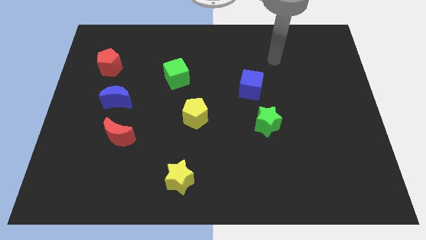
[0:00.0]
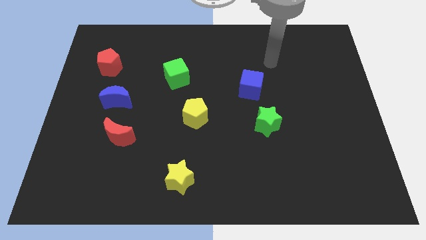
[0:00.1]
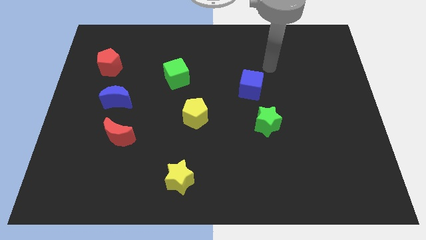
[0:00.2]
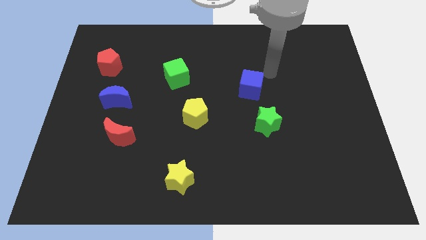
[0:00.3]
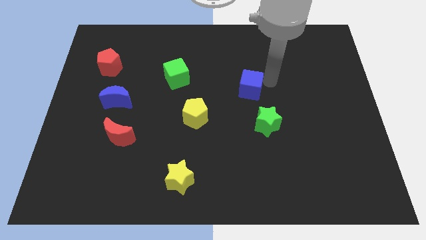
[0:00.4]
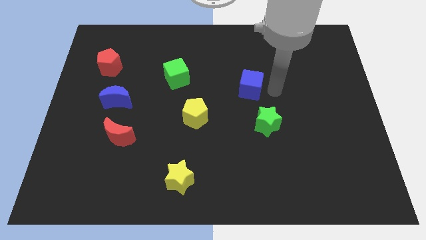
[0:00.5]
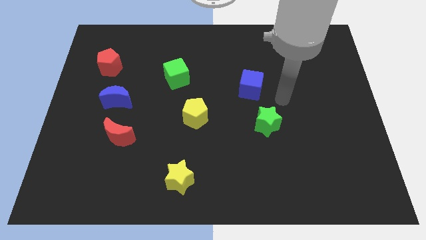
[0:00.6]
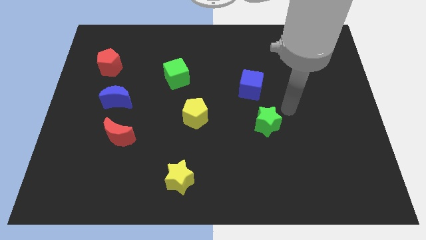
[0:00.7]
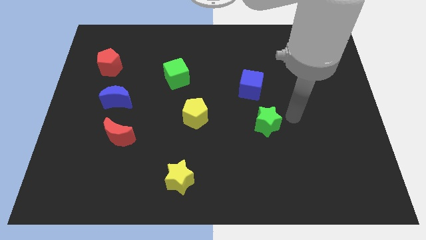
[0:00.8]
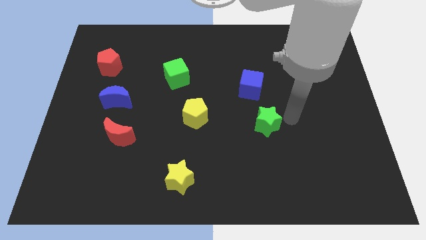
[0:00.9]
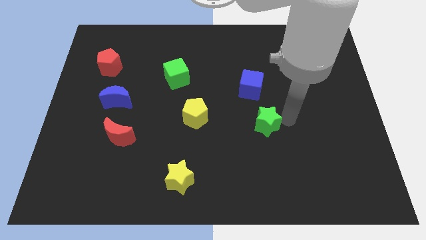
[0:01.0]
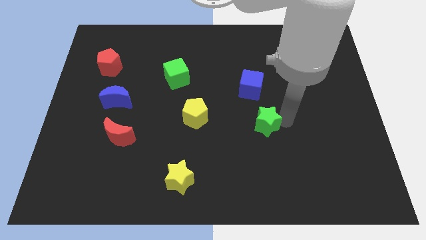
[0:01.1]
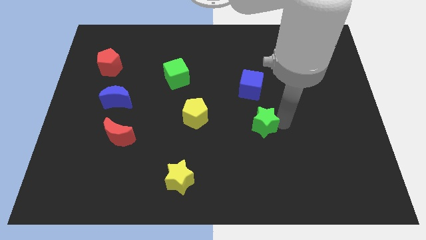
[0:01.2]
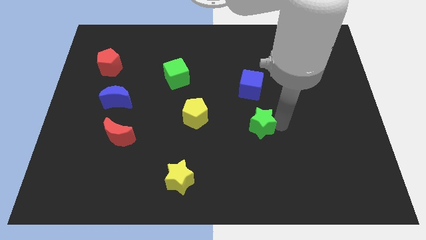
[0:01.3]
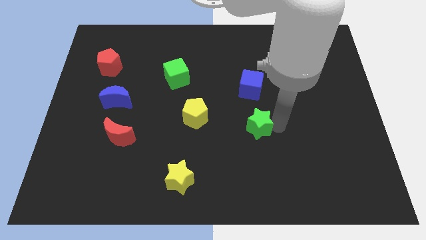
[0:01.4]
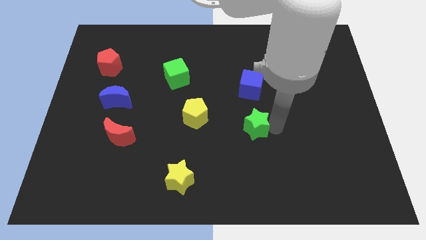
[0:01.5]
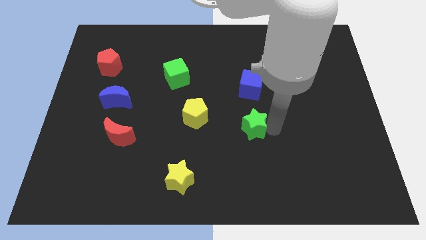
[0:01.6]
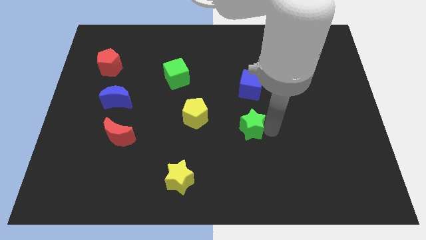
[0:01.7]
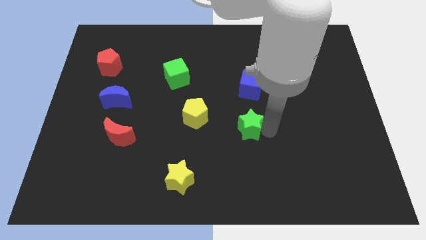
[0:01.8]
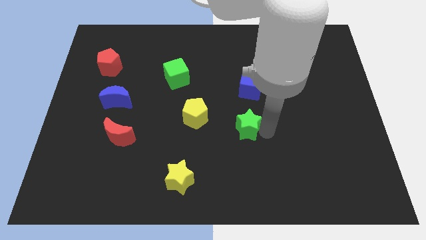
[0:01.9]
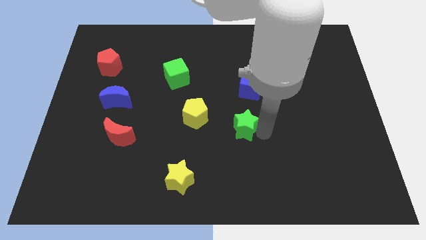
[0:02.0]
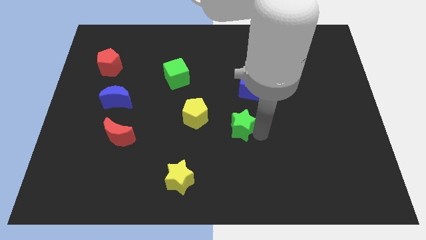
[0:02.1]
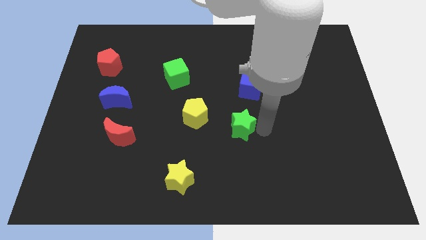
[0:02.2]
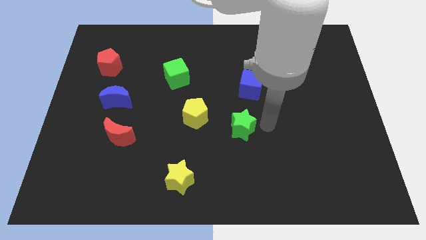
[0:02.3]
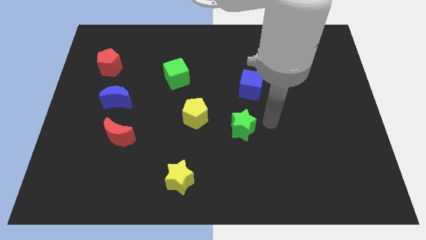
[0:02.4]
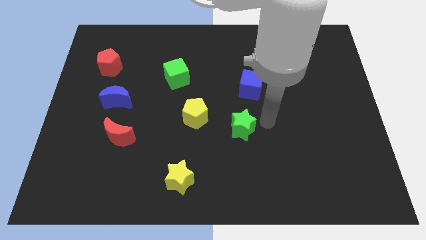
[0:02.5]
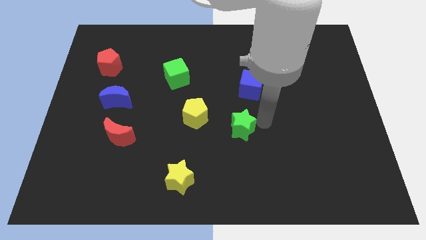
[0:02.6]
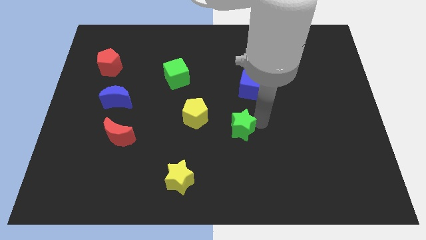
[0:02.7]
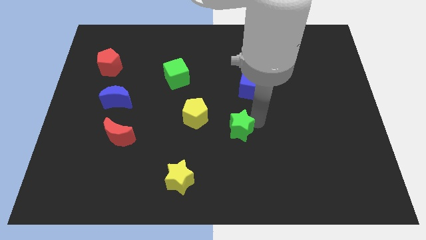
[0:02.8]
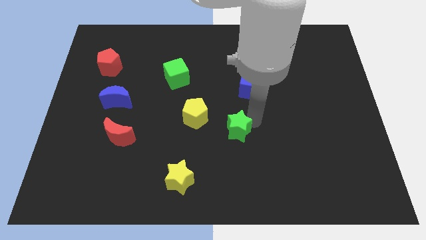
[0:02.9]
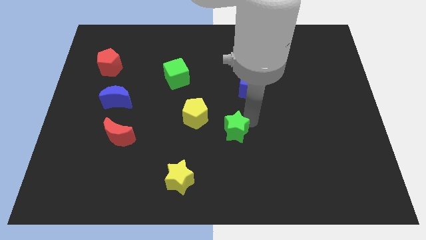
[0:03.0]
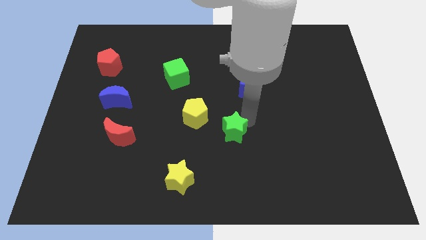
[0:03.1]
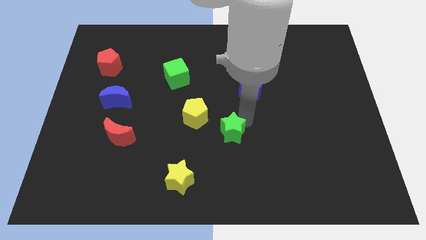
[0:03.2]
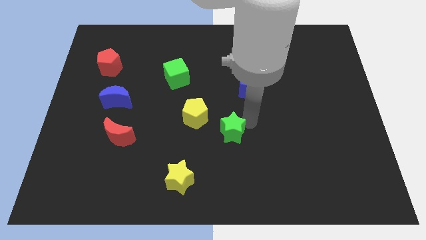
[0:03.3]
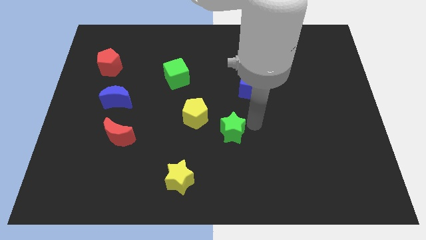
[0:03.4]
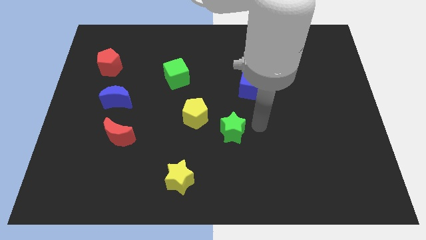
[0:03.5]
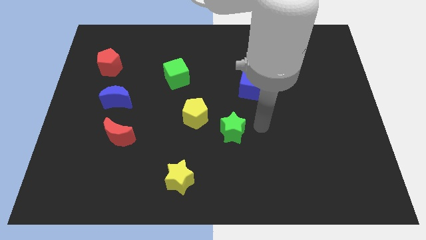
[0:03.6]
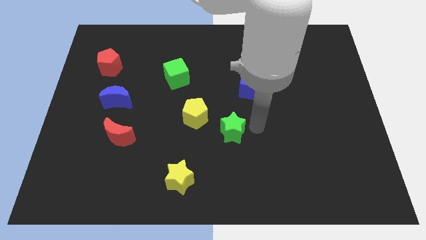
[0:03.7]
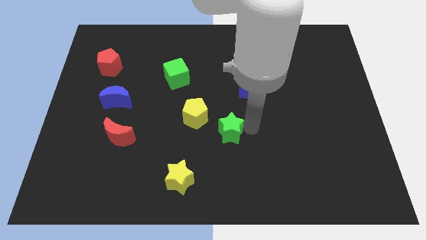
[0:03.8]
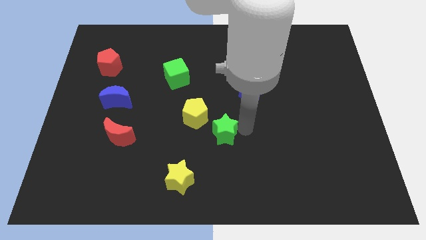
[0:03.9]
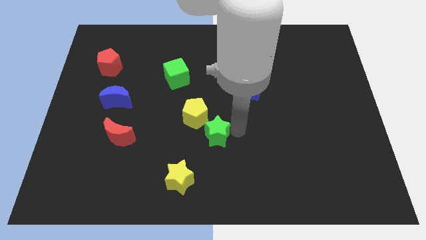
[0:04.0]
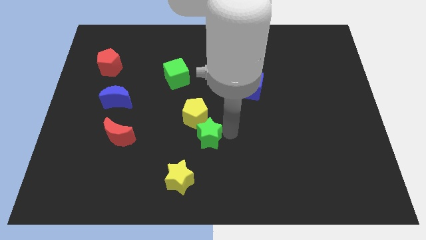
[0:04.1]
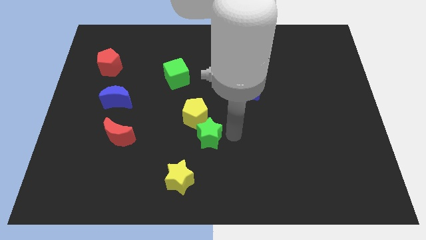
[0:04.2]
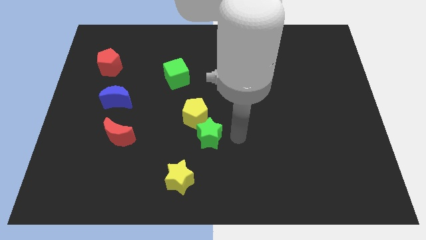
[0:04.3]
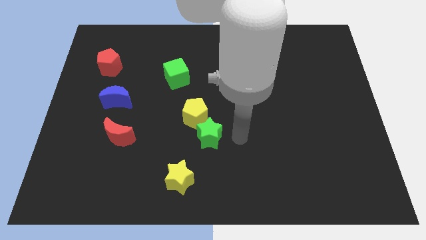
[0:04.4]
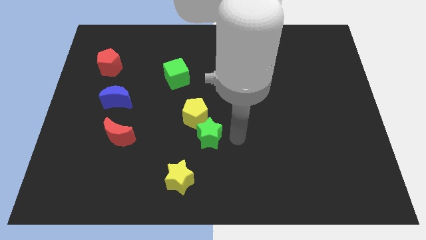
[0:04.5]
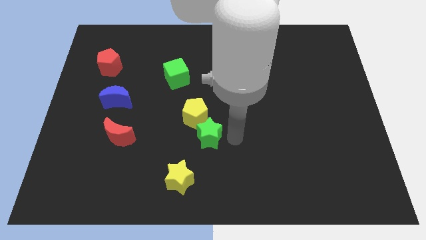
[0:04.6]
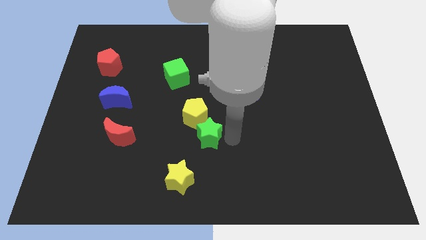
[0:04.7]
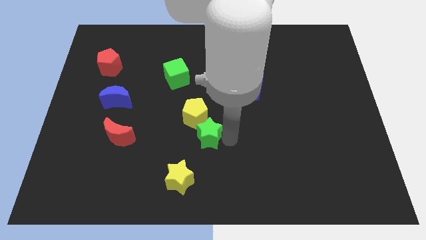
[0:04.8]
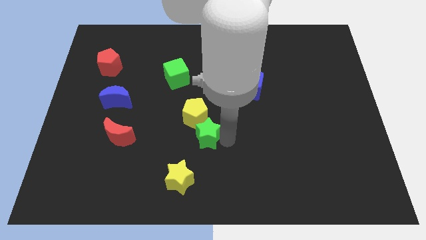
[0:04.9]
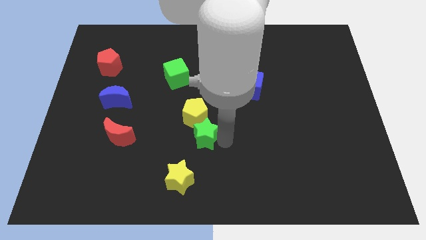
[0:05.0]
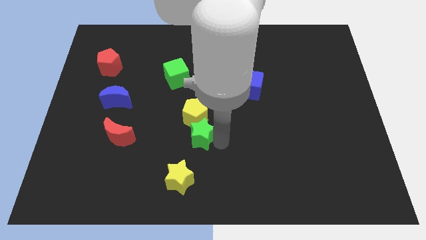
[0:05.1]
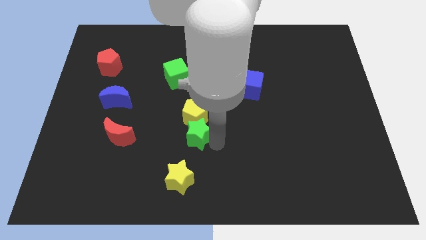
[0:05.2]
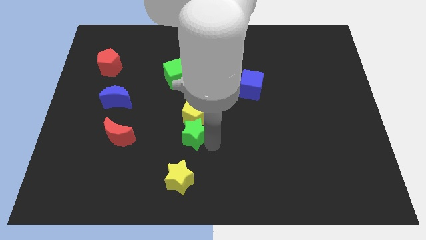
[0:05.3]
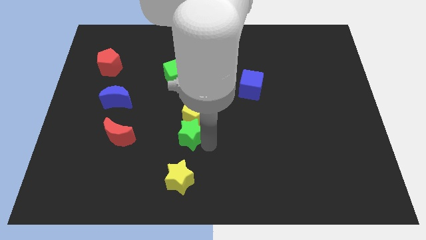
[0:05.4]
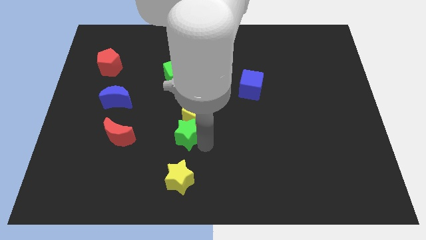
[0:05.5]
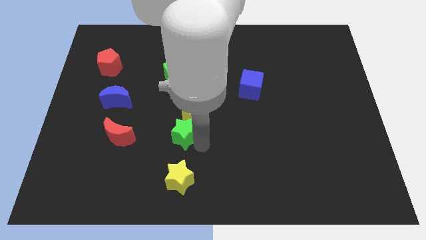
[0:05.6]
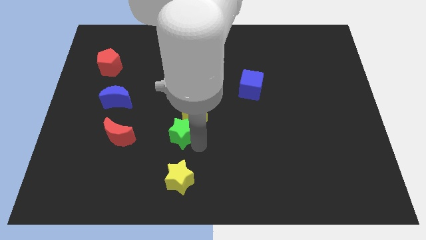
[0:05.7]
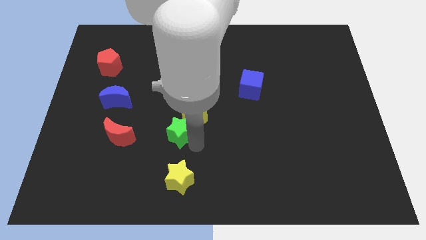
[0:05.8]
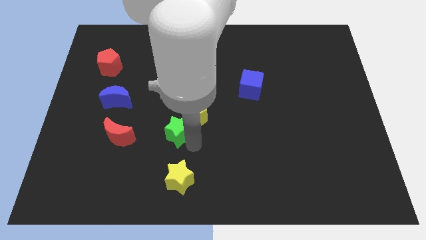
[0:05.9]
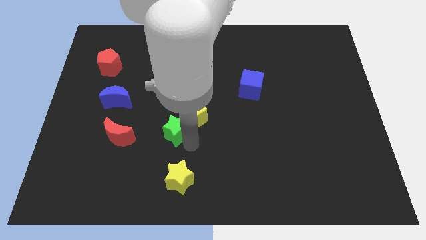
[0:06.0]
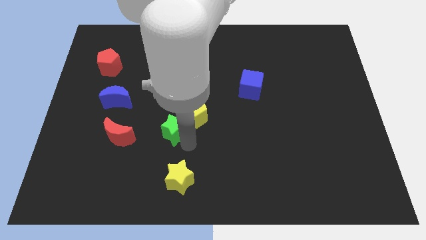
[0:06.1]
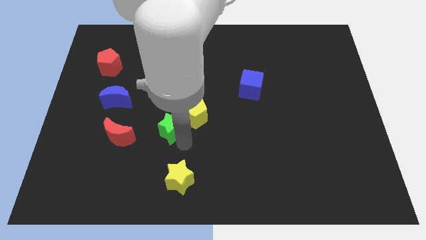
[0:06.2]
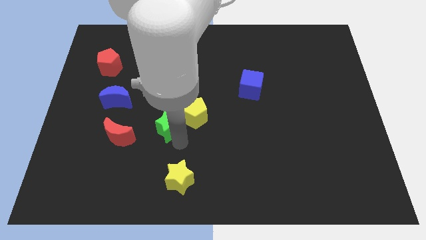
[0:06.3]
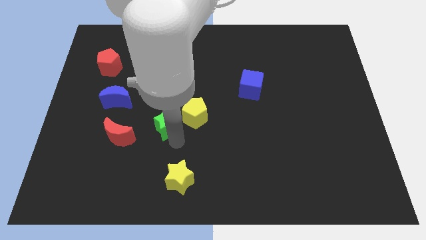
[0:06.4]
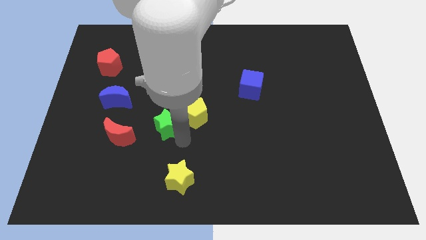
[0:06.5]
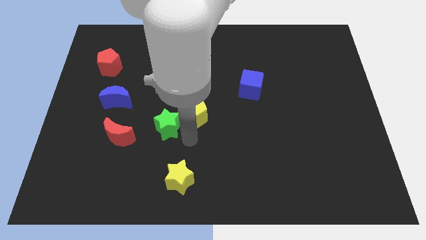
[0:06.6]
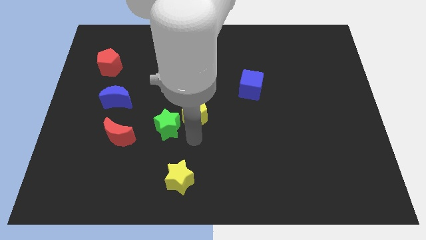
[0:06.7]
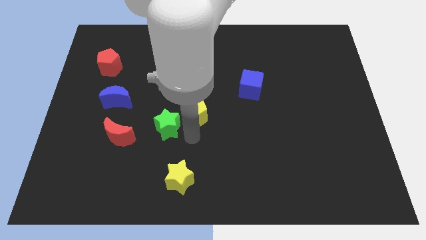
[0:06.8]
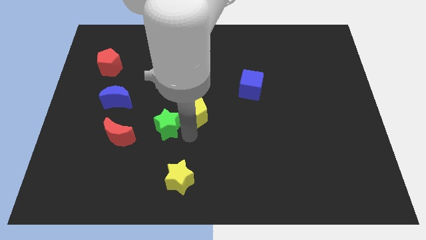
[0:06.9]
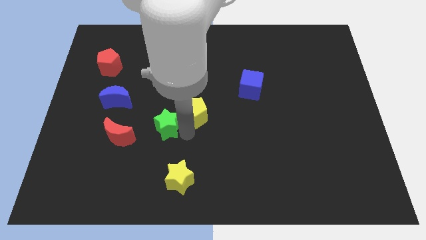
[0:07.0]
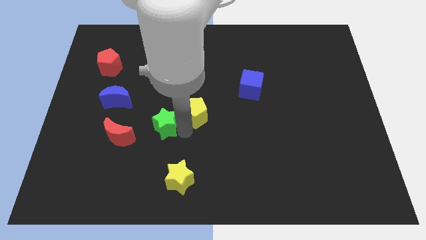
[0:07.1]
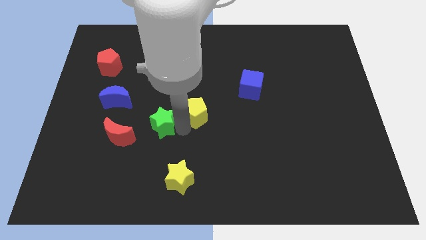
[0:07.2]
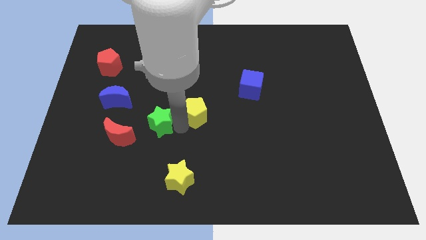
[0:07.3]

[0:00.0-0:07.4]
put the green star diagonally up and to the right of the red moon

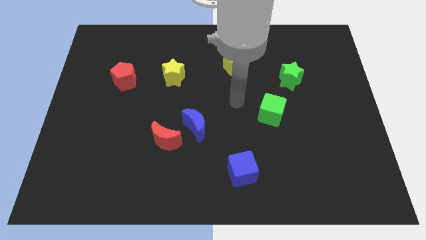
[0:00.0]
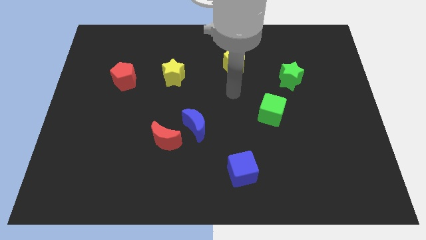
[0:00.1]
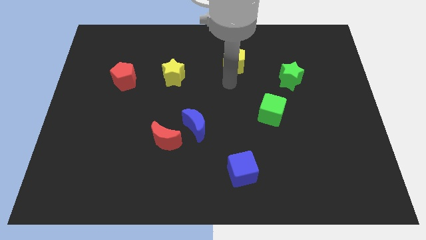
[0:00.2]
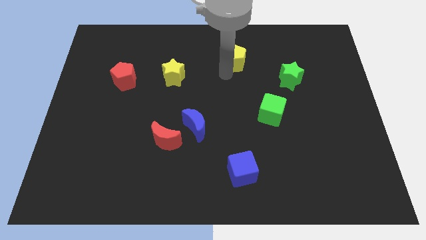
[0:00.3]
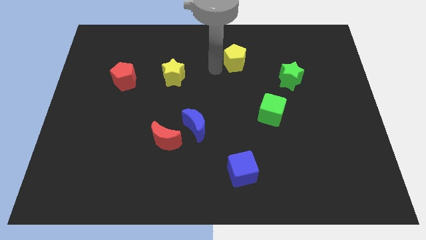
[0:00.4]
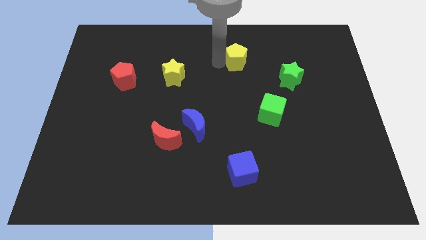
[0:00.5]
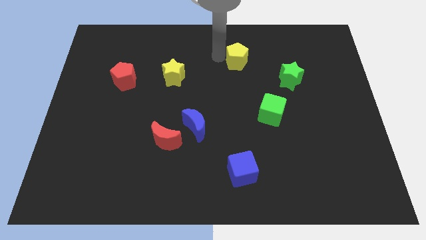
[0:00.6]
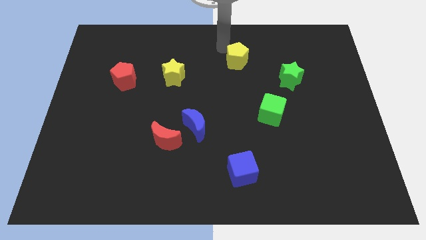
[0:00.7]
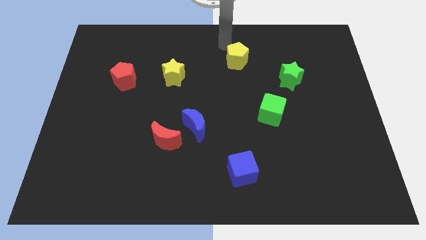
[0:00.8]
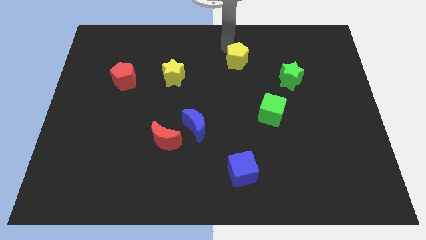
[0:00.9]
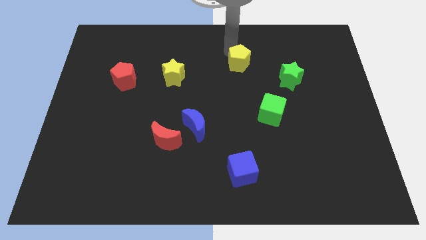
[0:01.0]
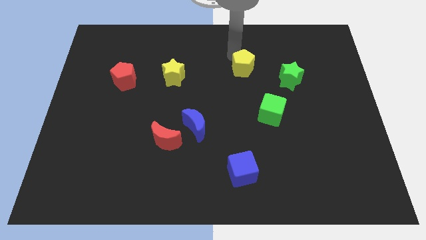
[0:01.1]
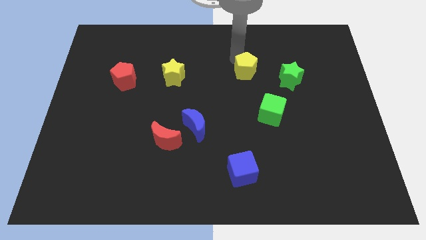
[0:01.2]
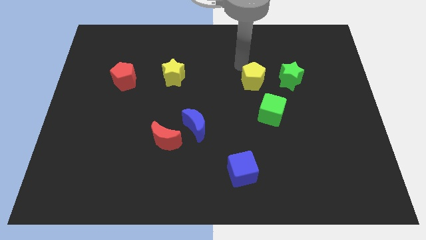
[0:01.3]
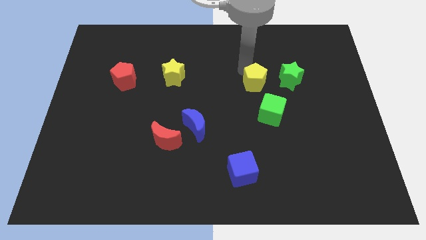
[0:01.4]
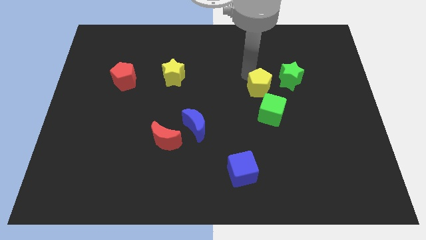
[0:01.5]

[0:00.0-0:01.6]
put the yellow pentagon diagonally down and to the left of the green star
